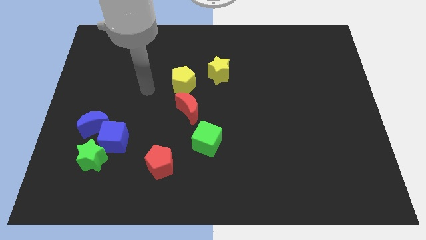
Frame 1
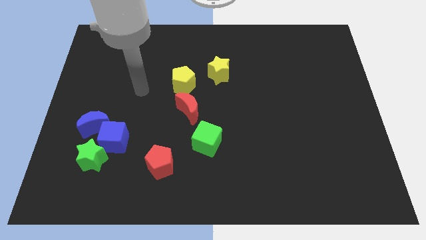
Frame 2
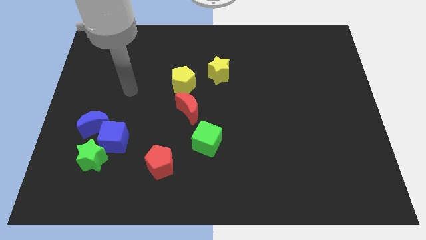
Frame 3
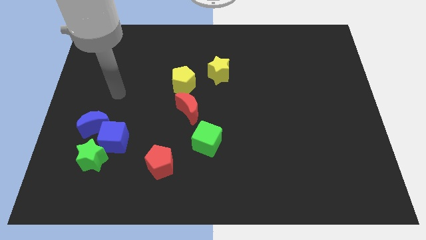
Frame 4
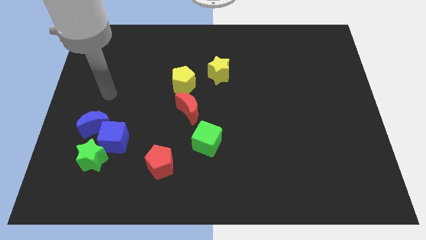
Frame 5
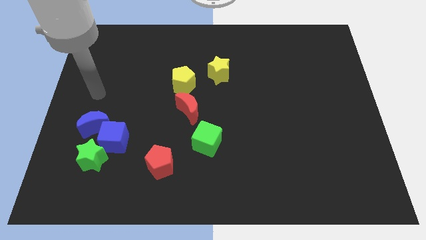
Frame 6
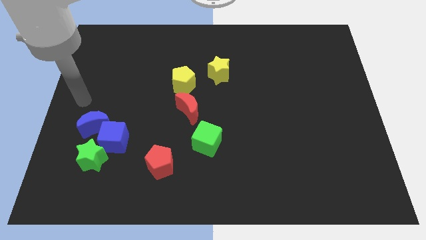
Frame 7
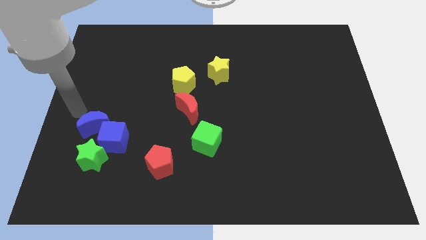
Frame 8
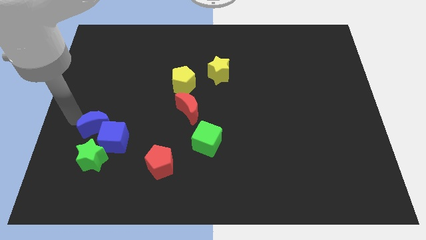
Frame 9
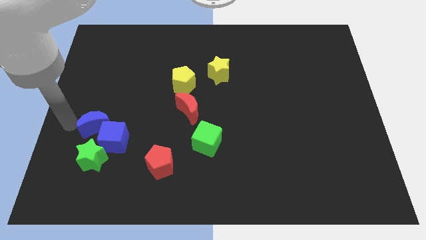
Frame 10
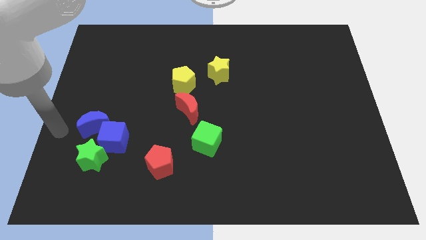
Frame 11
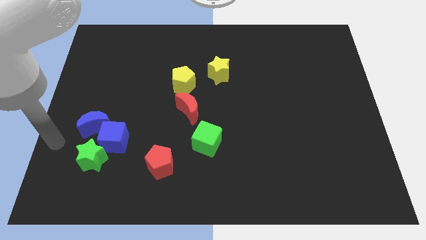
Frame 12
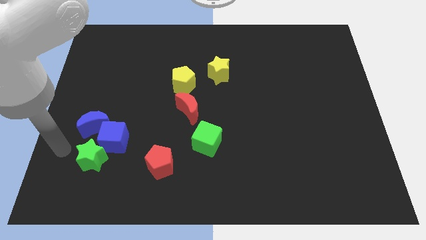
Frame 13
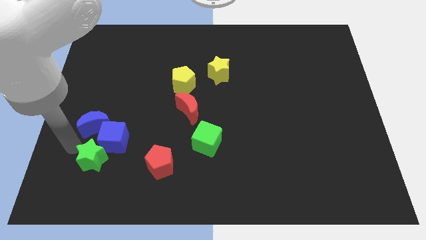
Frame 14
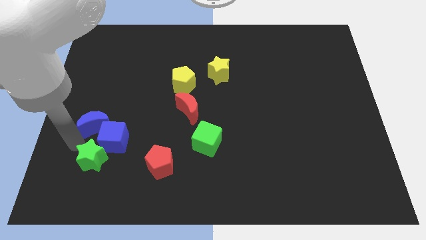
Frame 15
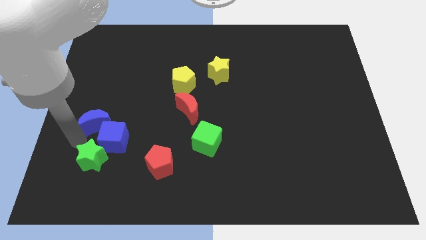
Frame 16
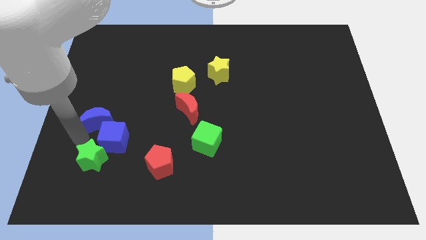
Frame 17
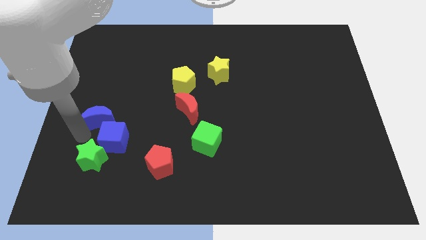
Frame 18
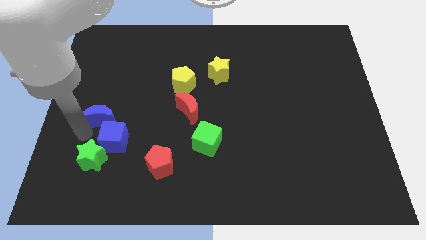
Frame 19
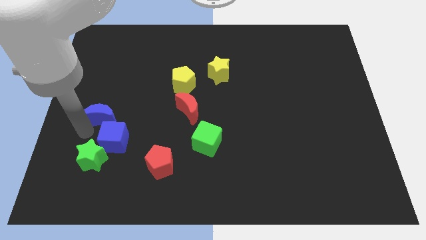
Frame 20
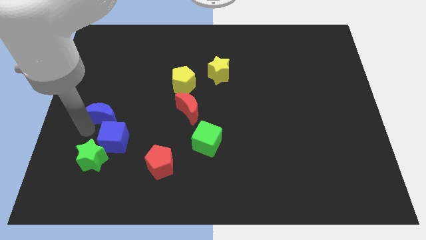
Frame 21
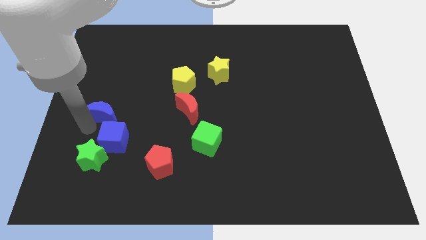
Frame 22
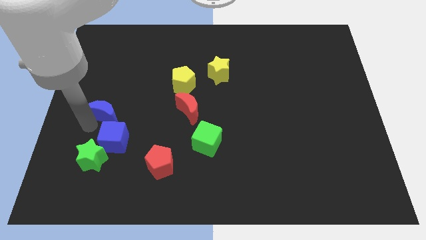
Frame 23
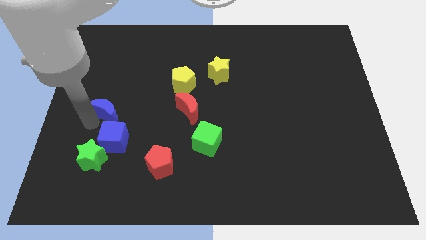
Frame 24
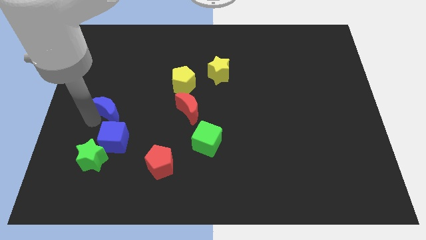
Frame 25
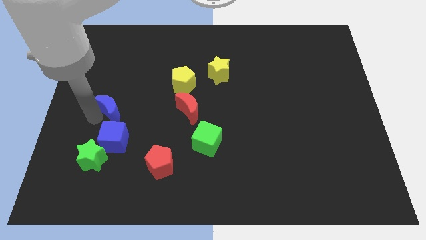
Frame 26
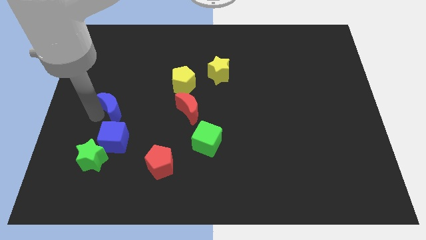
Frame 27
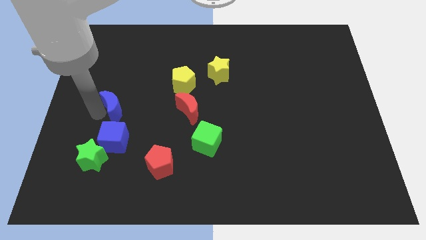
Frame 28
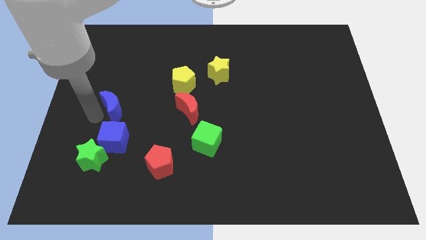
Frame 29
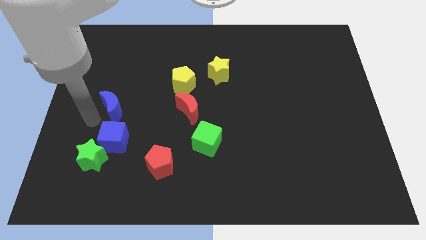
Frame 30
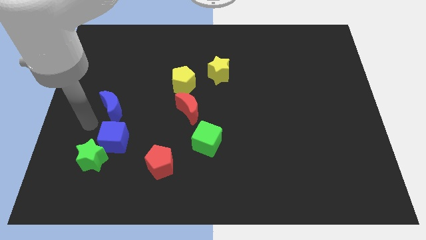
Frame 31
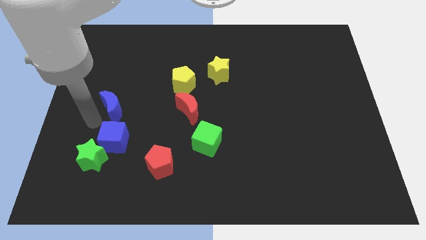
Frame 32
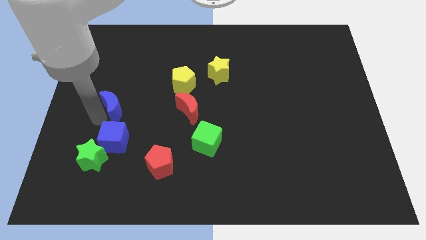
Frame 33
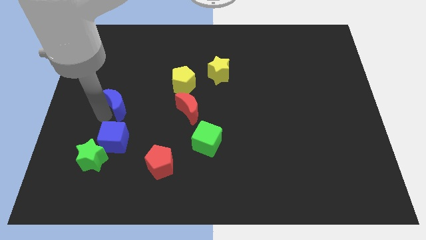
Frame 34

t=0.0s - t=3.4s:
slide the blue moon up and then to the right slightly

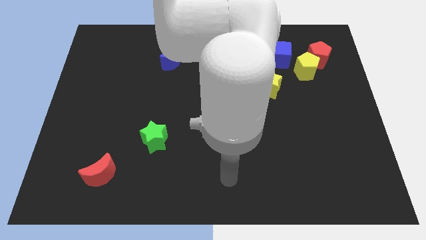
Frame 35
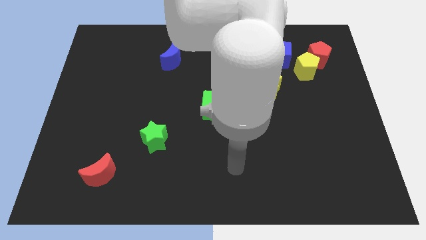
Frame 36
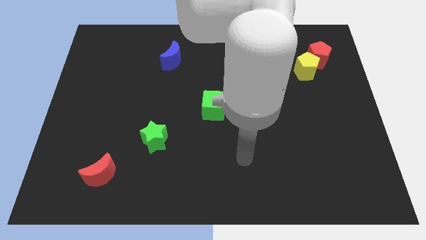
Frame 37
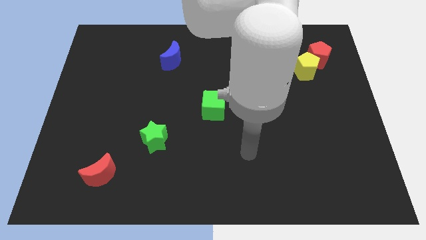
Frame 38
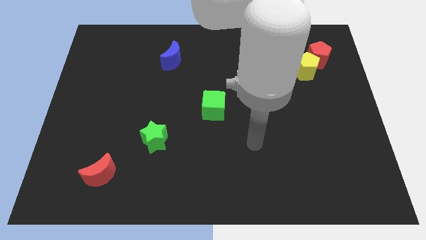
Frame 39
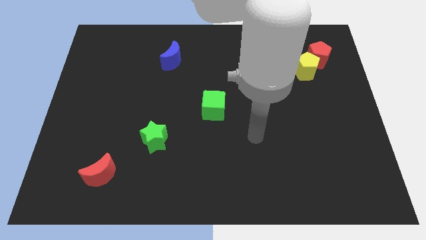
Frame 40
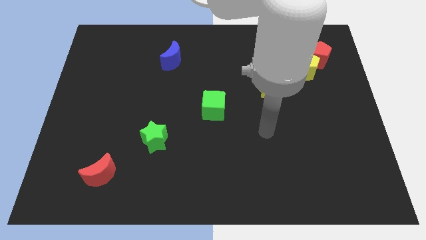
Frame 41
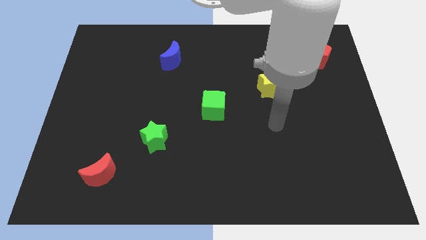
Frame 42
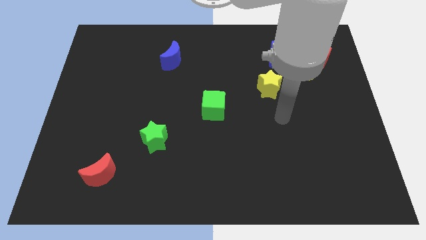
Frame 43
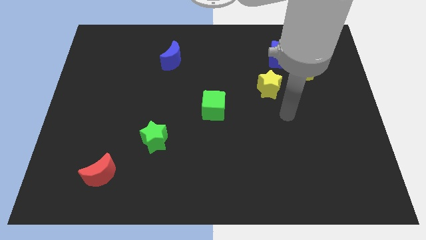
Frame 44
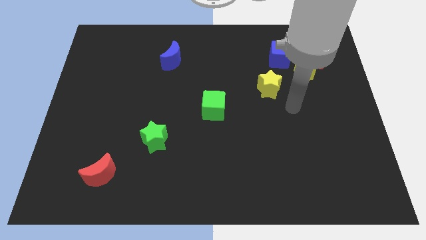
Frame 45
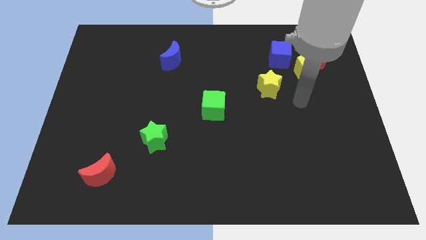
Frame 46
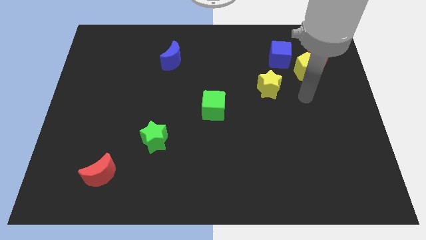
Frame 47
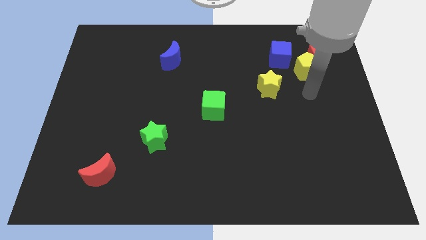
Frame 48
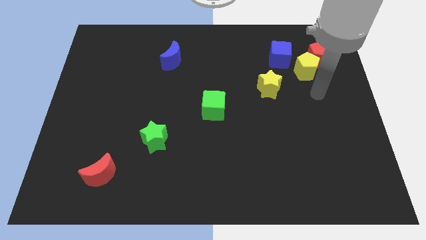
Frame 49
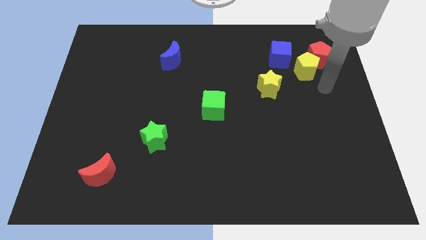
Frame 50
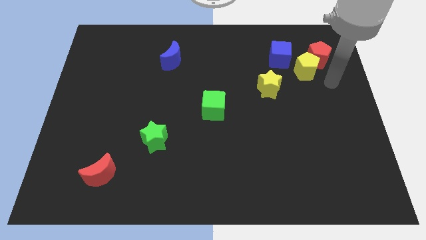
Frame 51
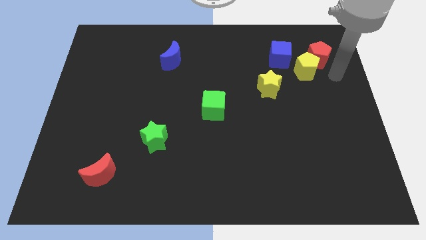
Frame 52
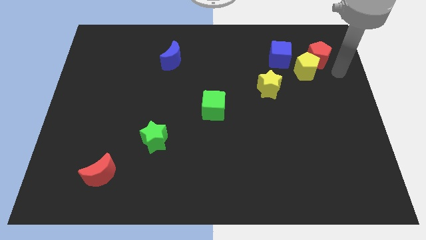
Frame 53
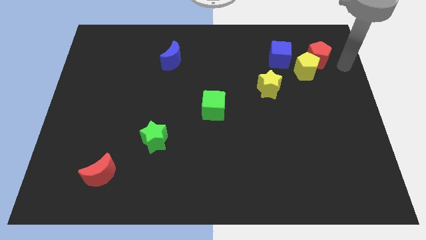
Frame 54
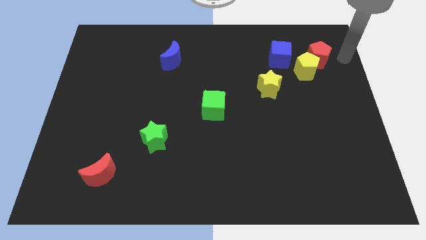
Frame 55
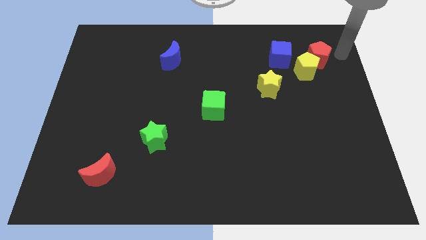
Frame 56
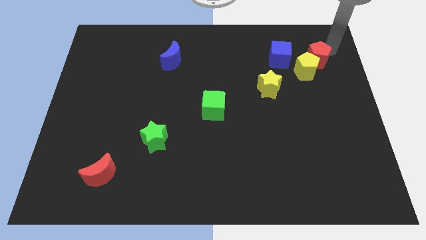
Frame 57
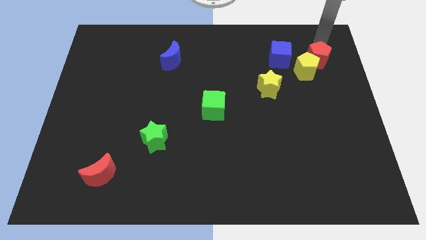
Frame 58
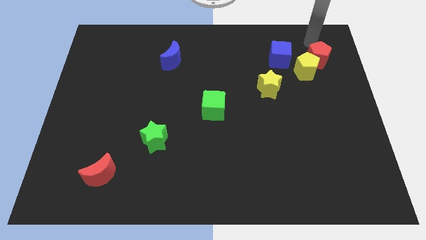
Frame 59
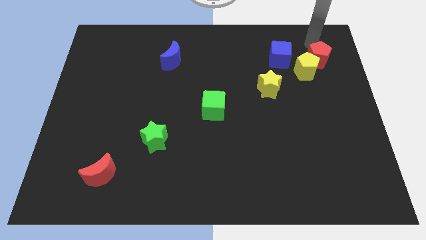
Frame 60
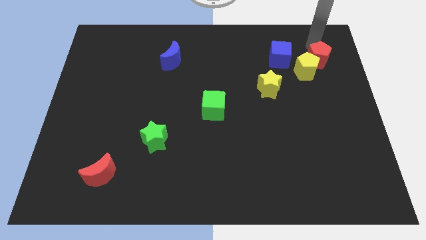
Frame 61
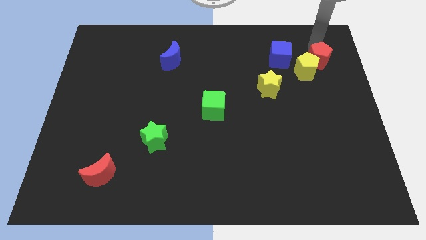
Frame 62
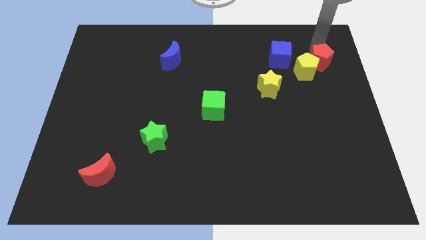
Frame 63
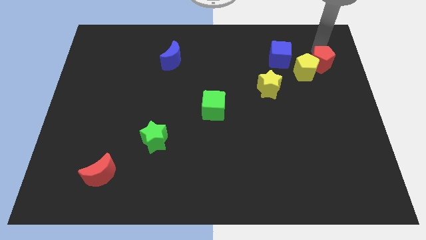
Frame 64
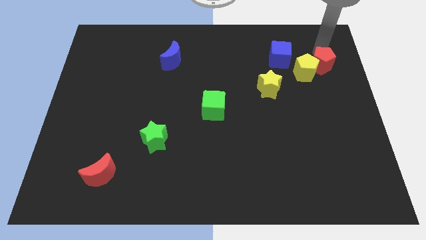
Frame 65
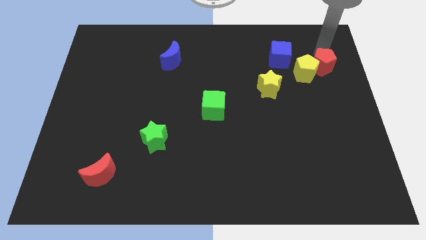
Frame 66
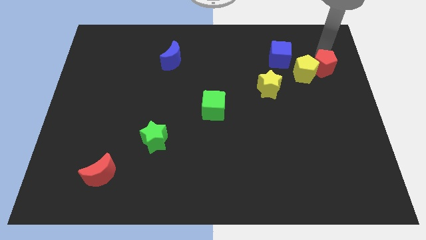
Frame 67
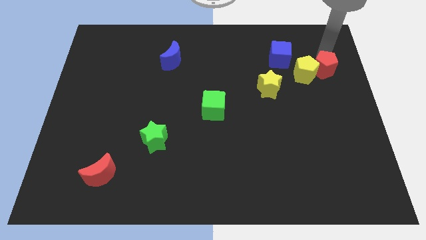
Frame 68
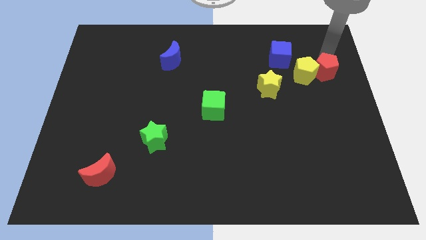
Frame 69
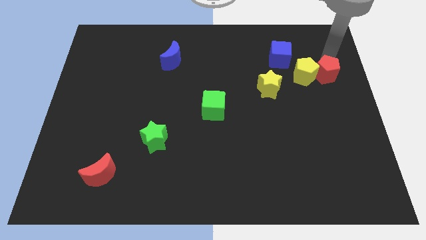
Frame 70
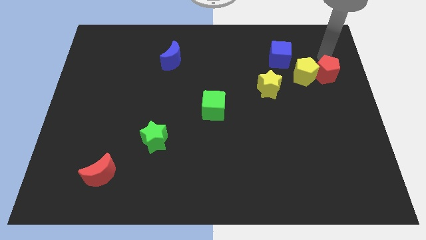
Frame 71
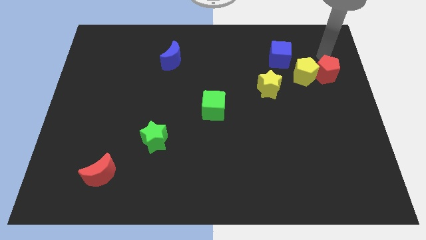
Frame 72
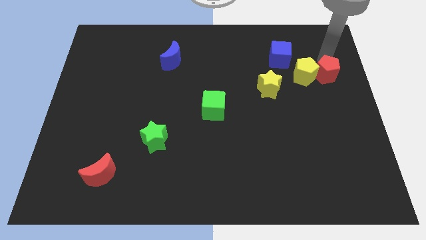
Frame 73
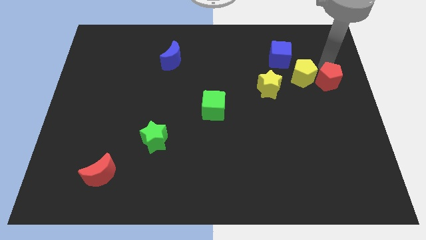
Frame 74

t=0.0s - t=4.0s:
move the red pentagon a bit downwards

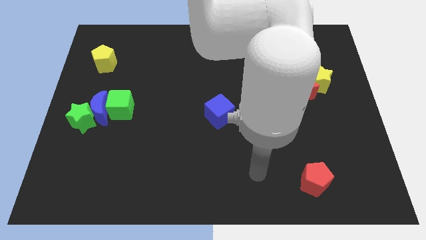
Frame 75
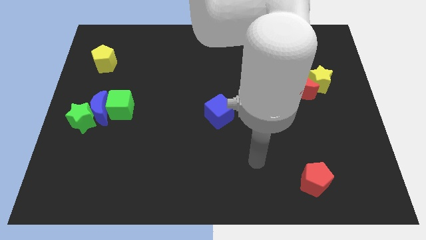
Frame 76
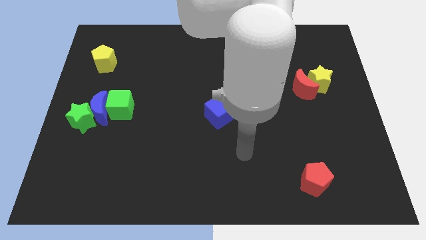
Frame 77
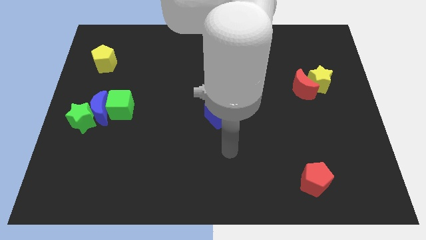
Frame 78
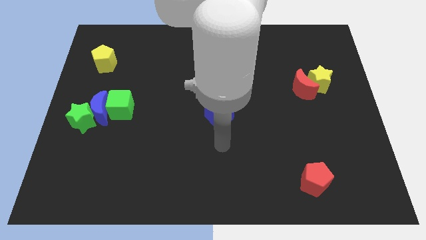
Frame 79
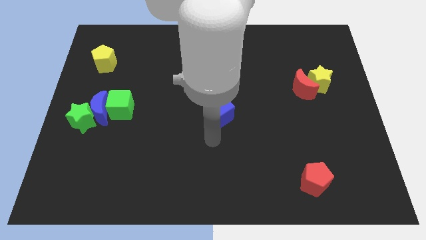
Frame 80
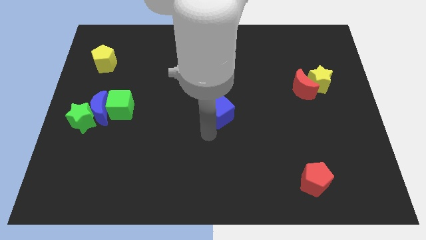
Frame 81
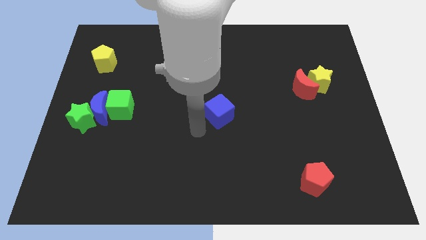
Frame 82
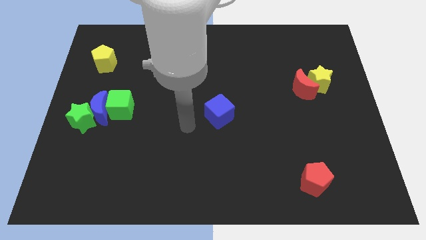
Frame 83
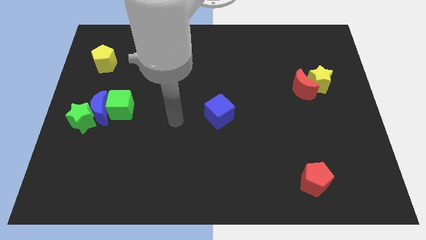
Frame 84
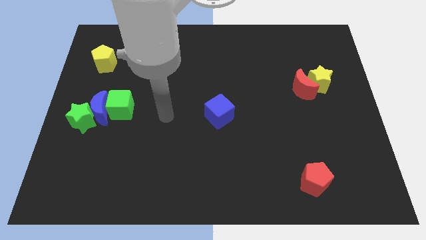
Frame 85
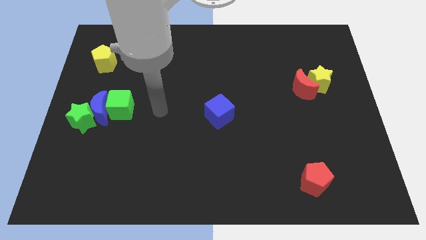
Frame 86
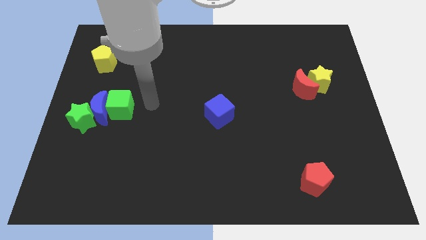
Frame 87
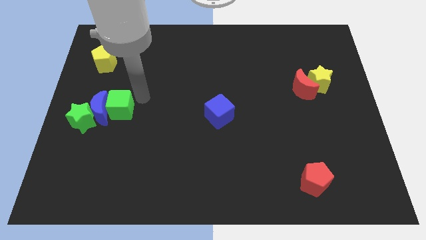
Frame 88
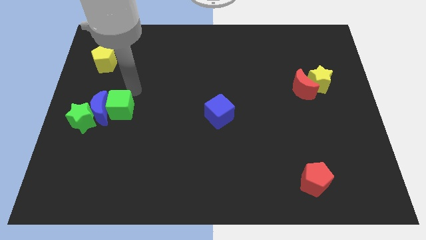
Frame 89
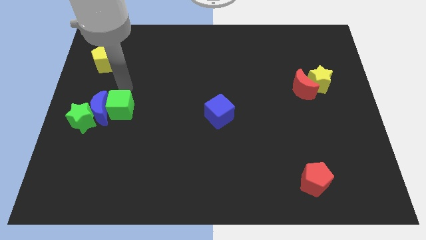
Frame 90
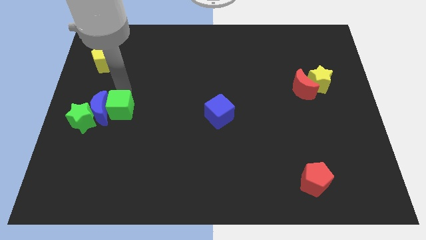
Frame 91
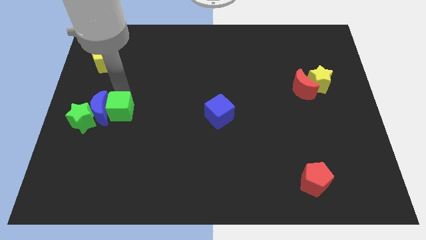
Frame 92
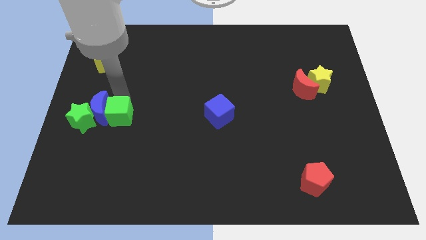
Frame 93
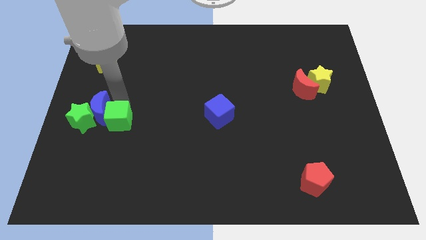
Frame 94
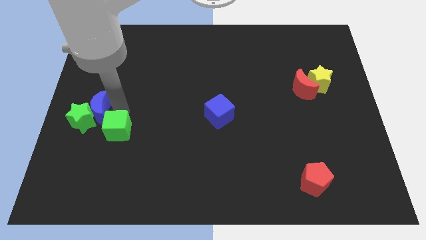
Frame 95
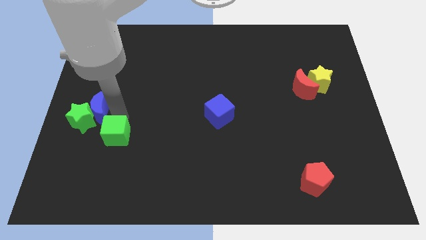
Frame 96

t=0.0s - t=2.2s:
push the green cube down a bit
